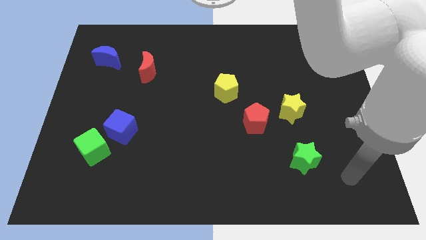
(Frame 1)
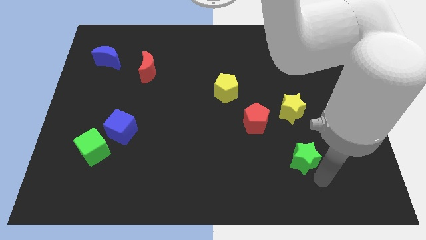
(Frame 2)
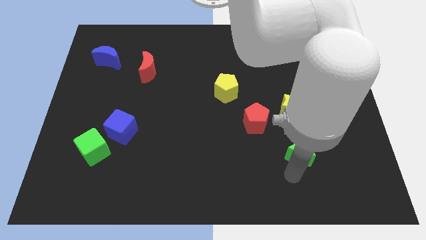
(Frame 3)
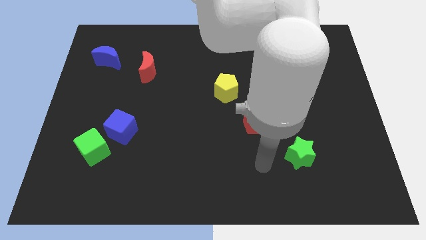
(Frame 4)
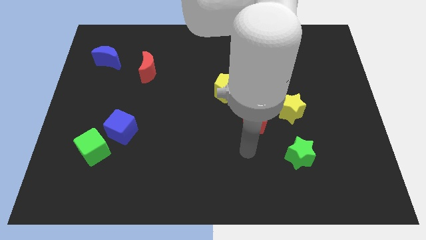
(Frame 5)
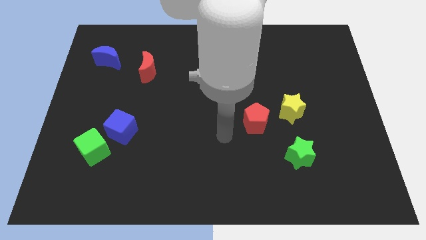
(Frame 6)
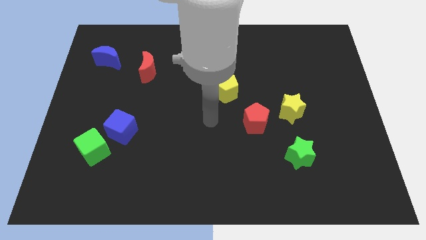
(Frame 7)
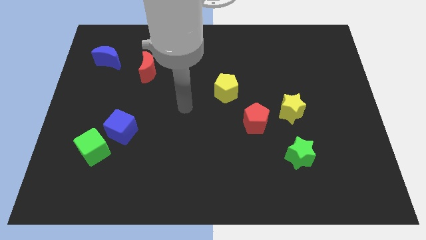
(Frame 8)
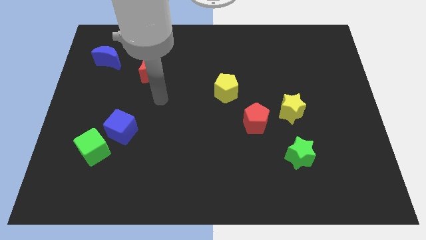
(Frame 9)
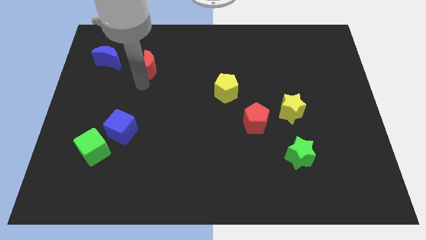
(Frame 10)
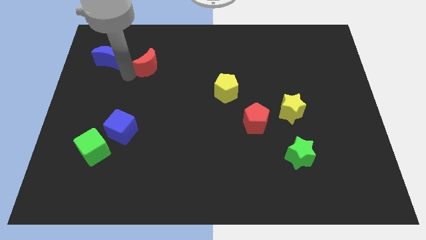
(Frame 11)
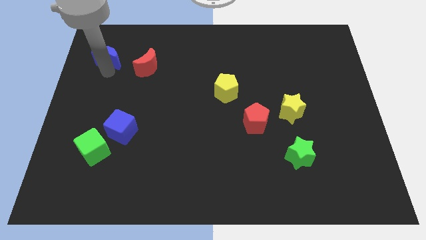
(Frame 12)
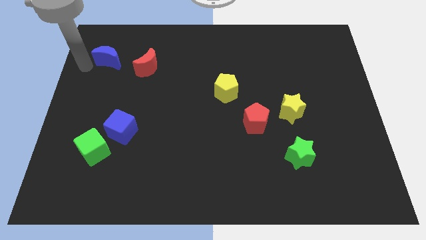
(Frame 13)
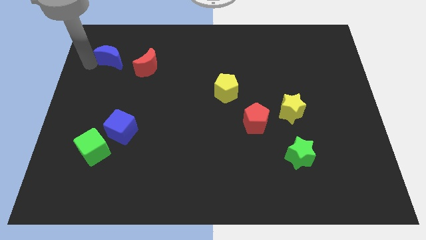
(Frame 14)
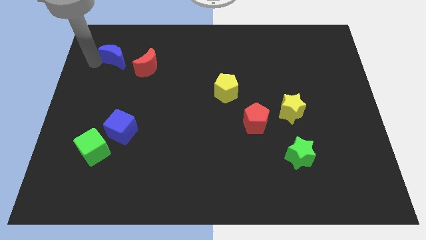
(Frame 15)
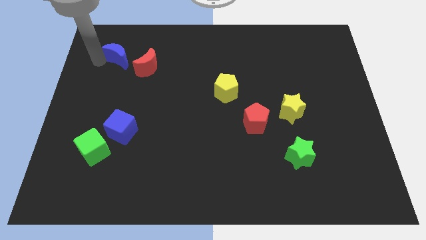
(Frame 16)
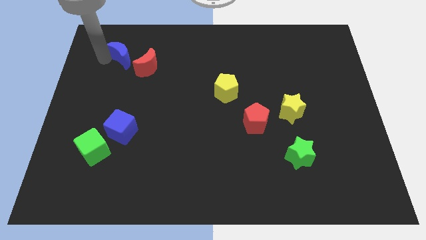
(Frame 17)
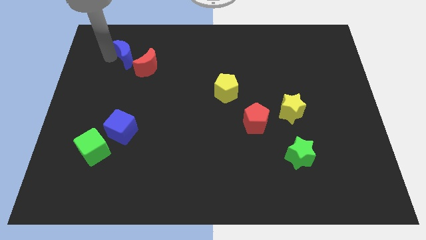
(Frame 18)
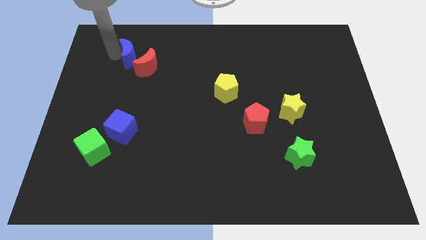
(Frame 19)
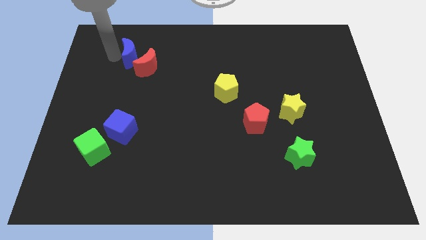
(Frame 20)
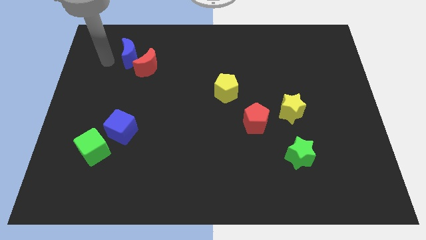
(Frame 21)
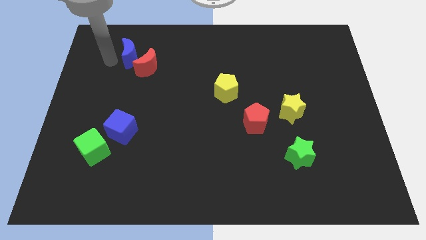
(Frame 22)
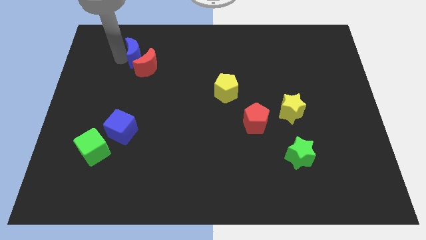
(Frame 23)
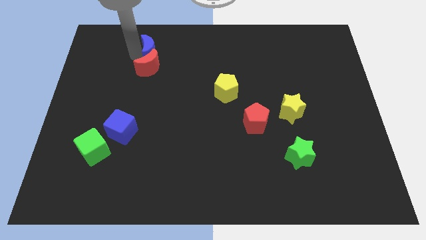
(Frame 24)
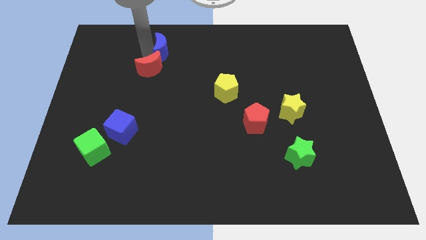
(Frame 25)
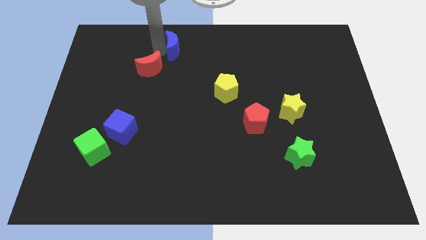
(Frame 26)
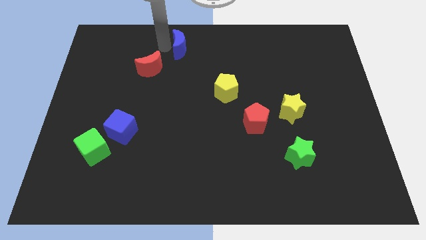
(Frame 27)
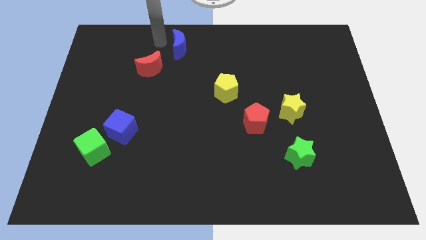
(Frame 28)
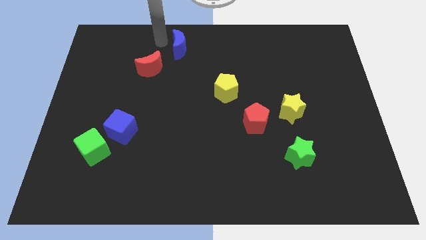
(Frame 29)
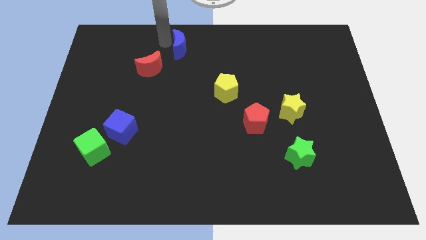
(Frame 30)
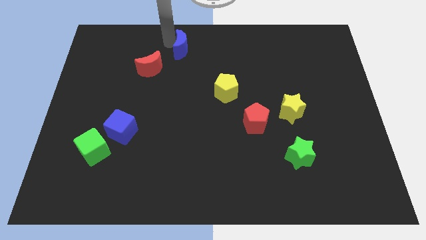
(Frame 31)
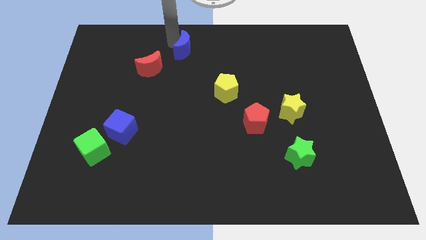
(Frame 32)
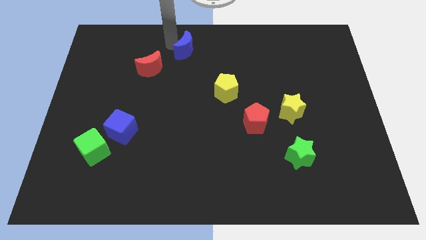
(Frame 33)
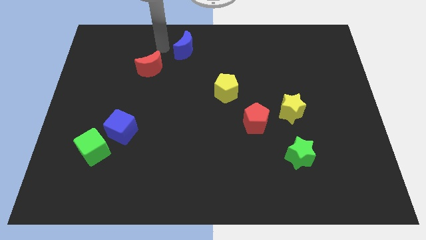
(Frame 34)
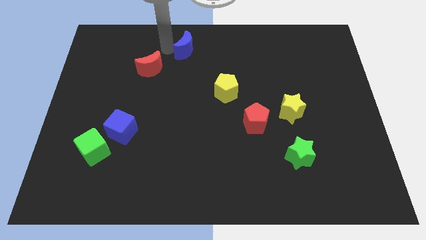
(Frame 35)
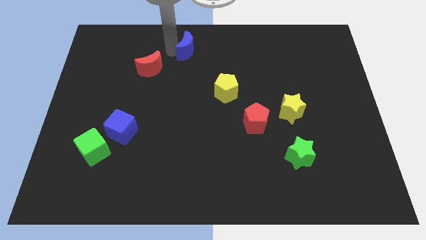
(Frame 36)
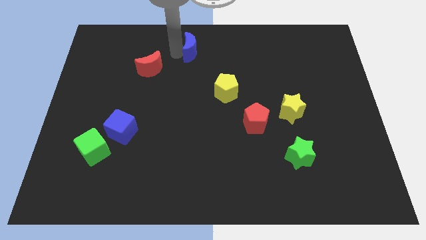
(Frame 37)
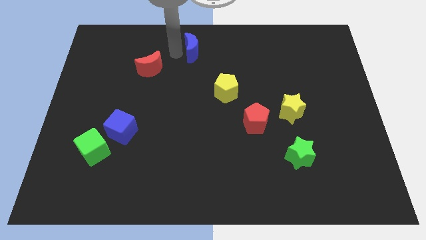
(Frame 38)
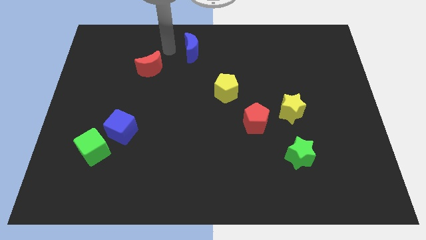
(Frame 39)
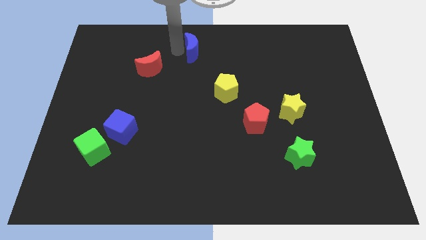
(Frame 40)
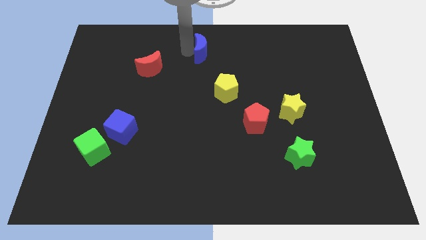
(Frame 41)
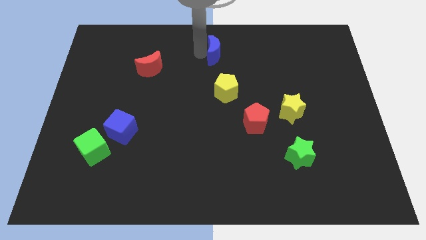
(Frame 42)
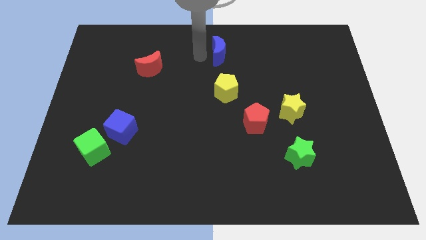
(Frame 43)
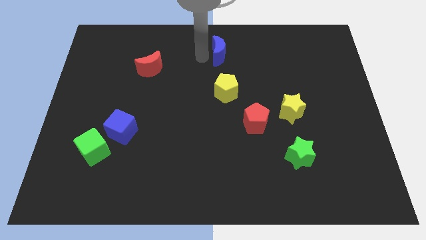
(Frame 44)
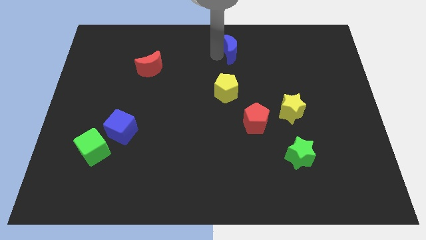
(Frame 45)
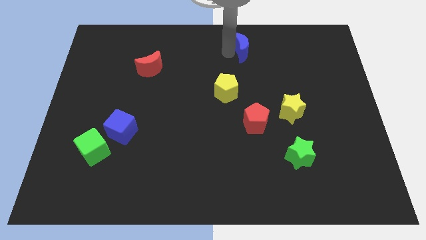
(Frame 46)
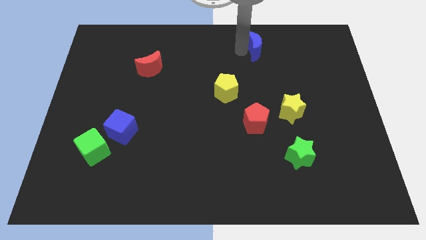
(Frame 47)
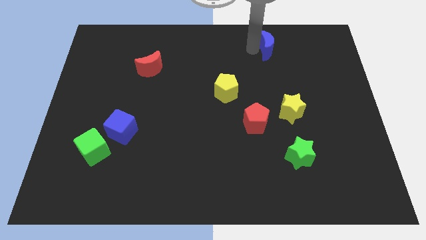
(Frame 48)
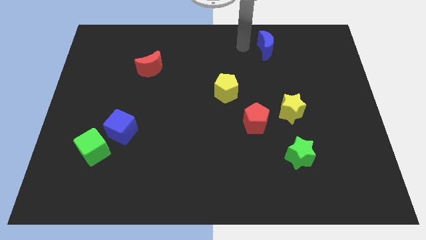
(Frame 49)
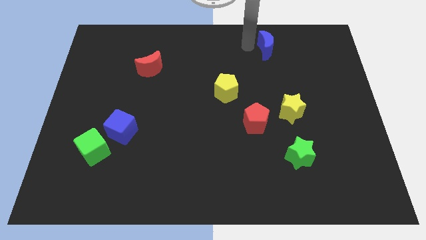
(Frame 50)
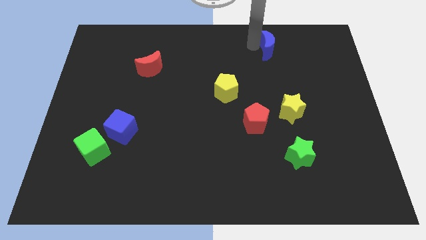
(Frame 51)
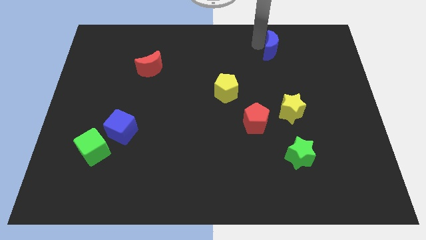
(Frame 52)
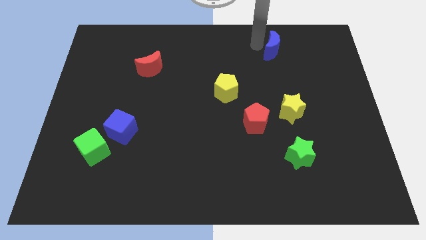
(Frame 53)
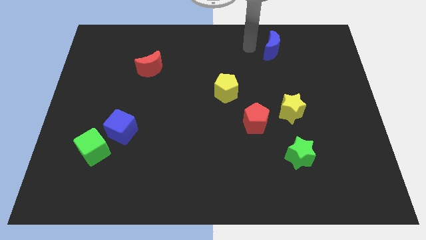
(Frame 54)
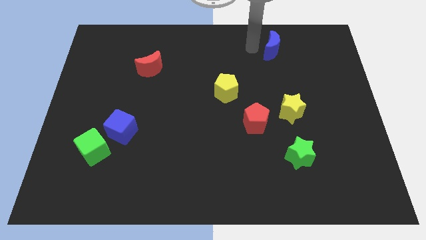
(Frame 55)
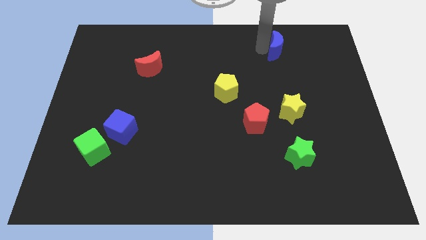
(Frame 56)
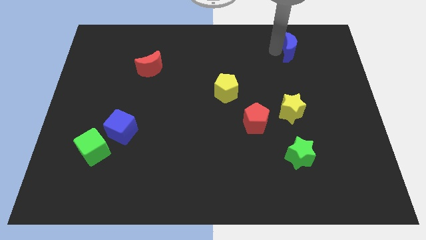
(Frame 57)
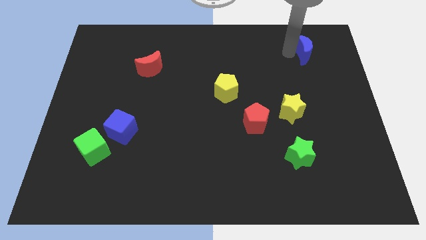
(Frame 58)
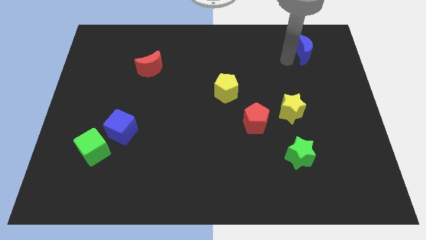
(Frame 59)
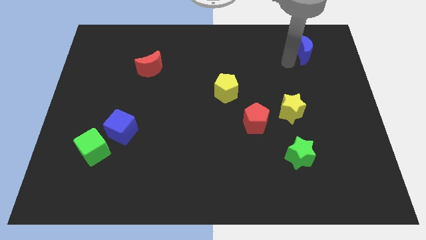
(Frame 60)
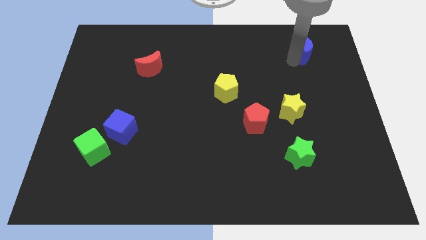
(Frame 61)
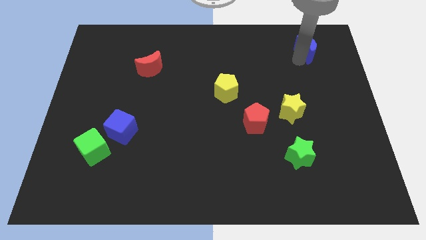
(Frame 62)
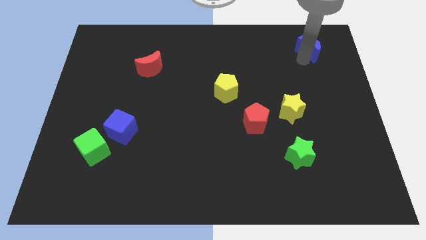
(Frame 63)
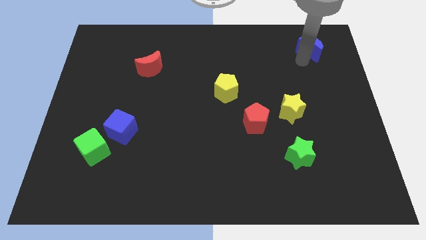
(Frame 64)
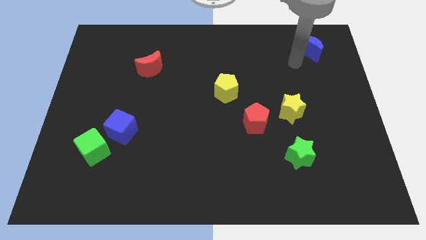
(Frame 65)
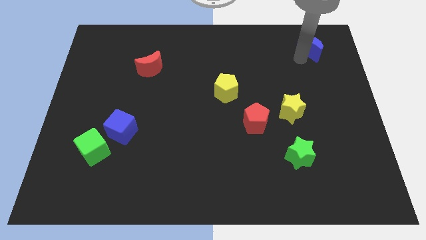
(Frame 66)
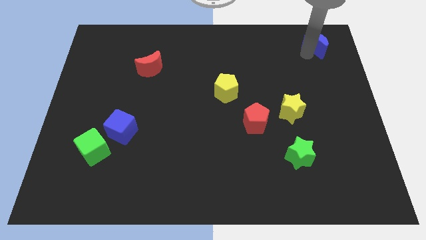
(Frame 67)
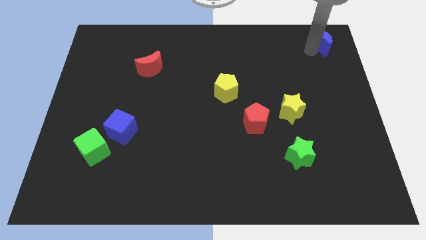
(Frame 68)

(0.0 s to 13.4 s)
push the blue moon to the top right corner
